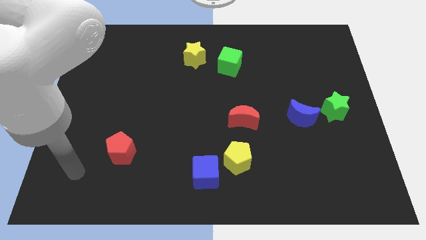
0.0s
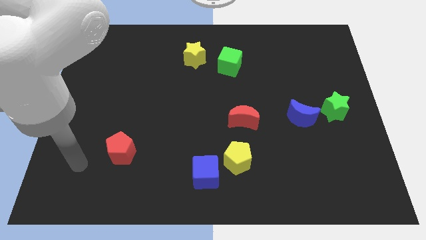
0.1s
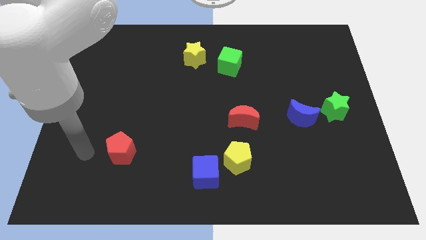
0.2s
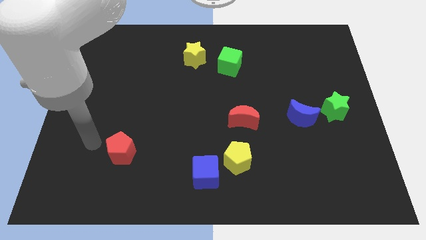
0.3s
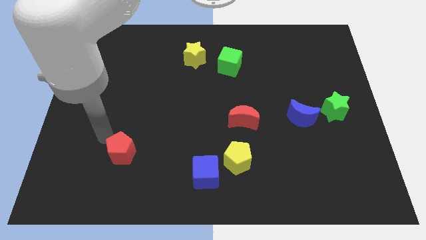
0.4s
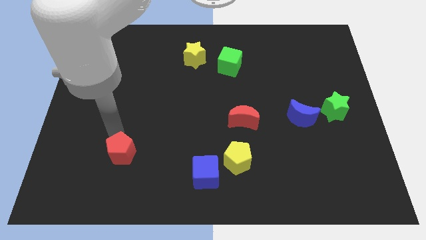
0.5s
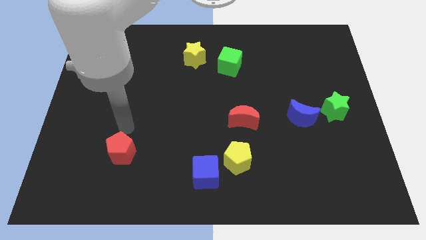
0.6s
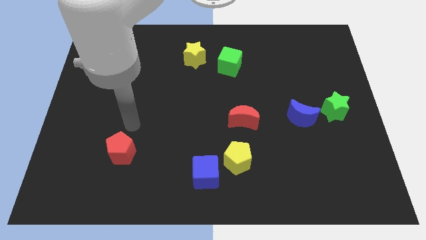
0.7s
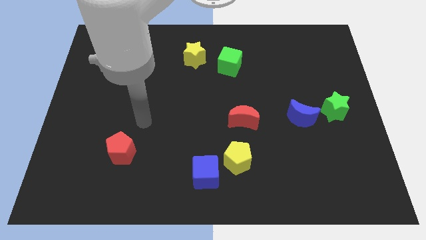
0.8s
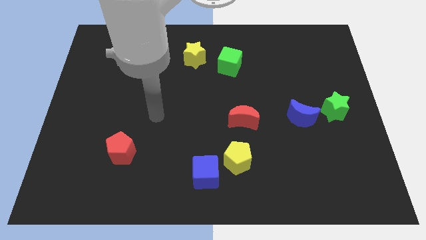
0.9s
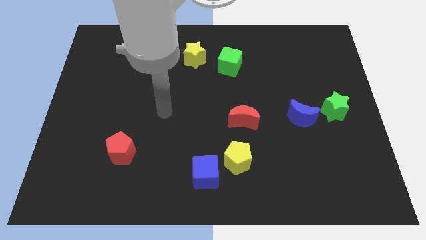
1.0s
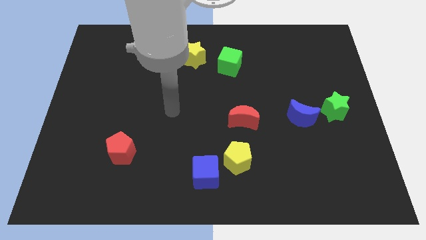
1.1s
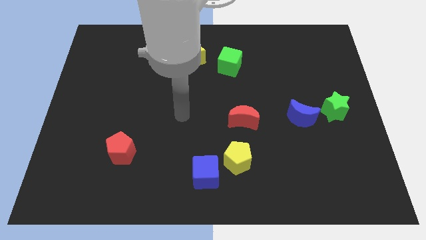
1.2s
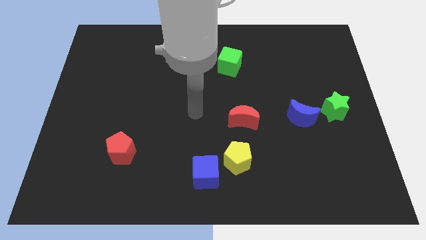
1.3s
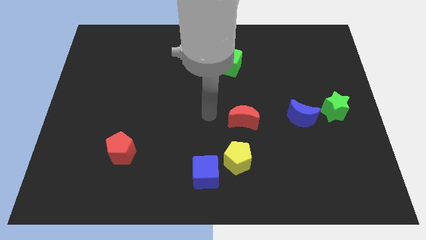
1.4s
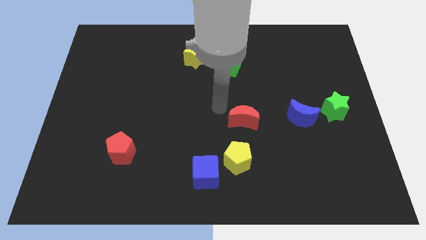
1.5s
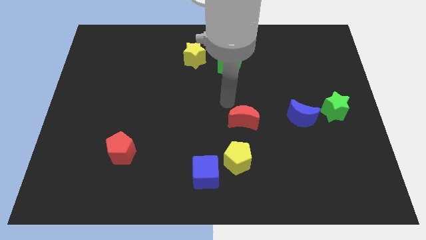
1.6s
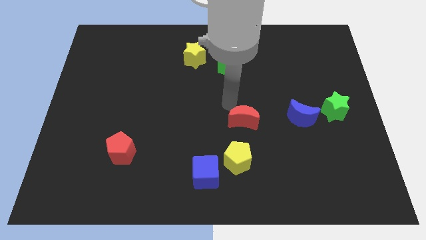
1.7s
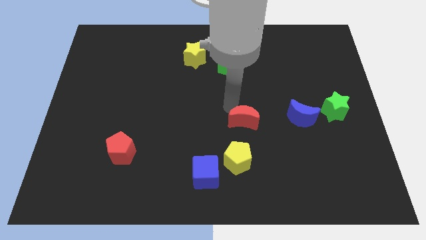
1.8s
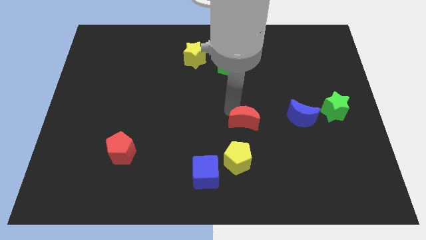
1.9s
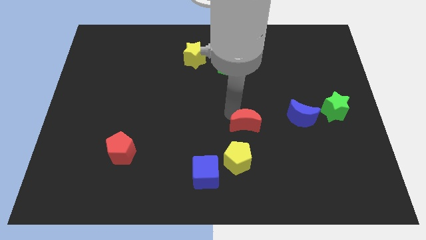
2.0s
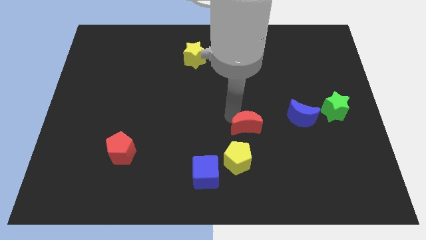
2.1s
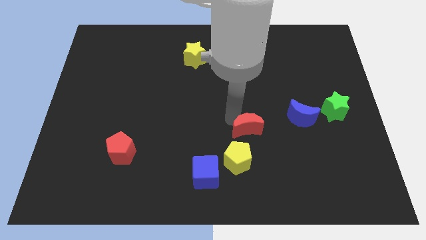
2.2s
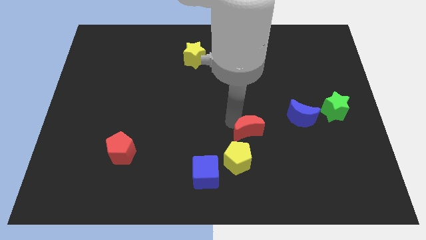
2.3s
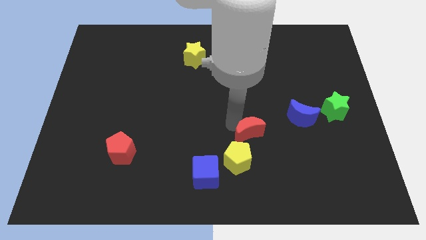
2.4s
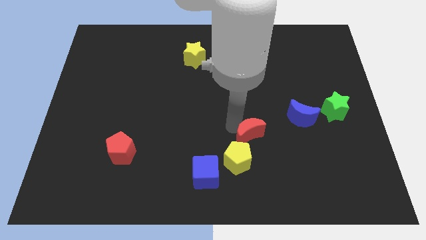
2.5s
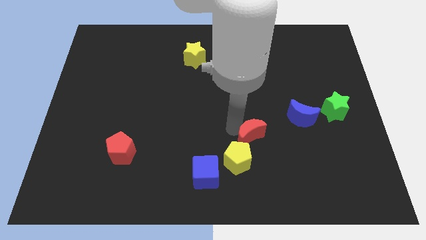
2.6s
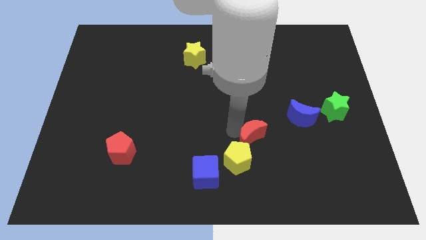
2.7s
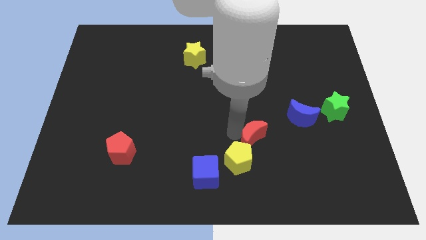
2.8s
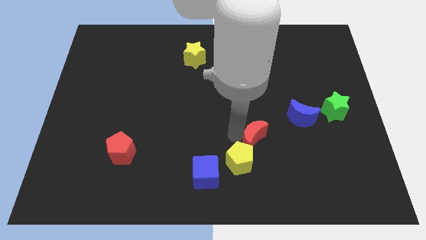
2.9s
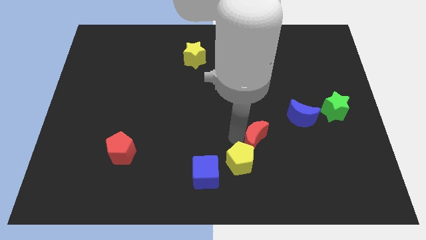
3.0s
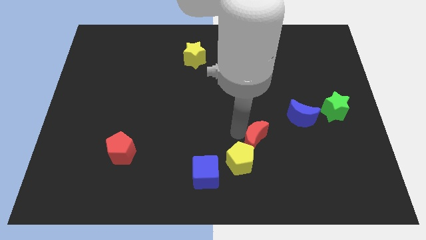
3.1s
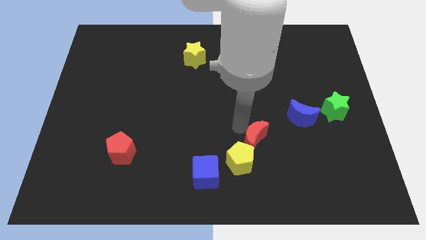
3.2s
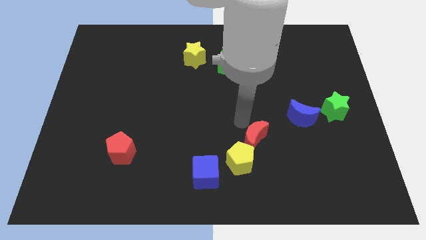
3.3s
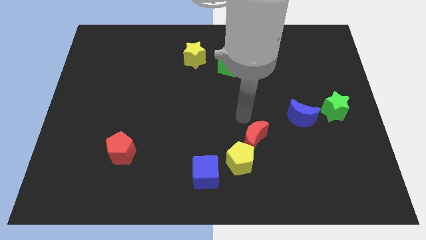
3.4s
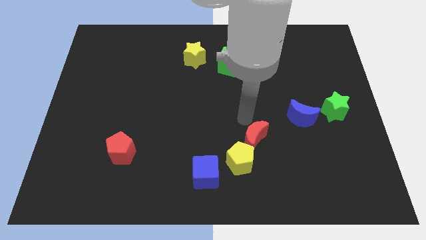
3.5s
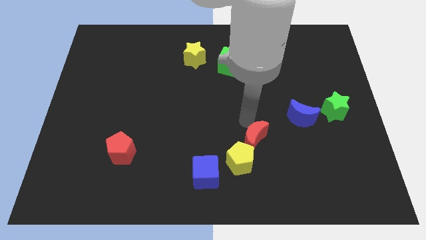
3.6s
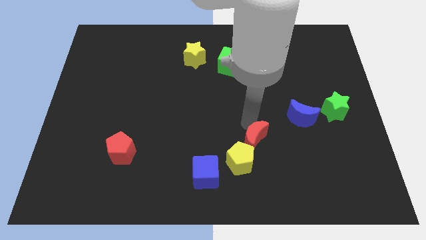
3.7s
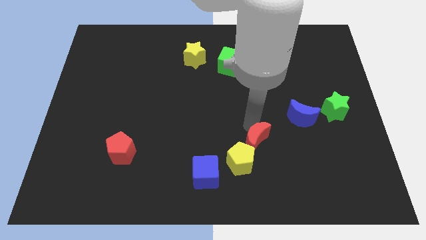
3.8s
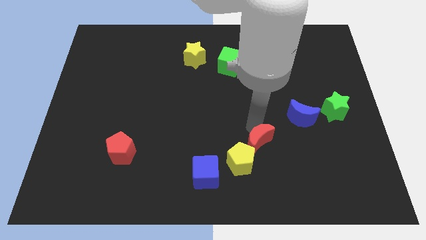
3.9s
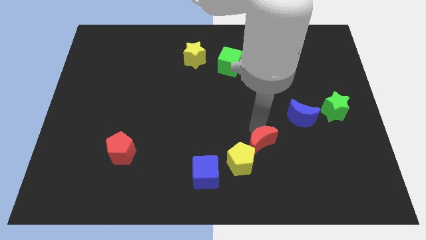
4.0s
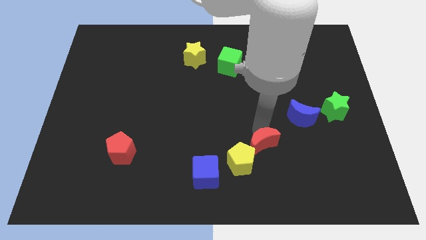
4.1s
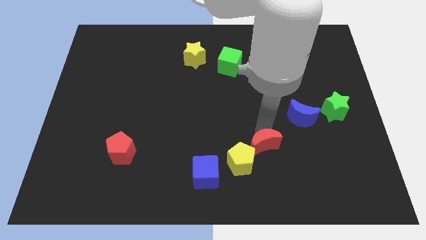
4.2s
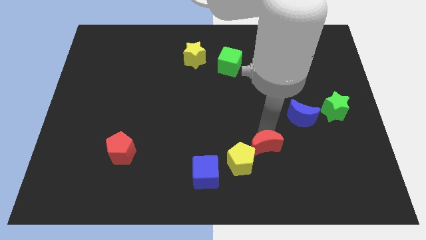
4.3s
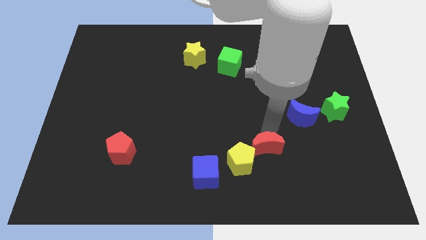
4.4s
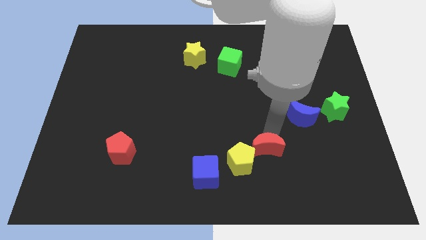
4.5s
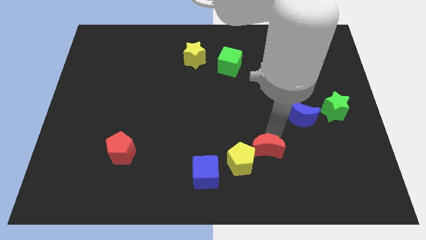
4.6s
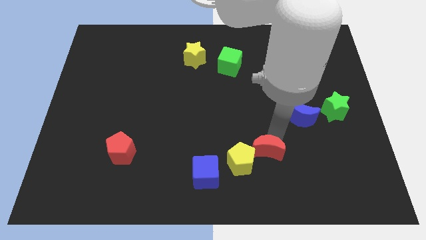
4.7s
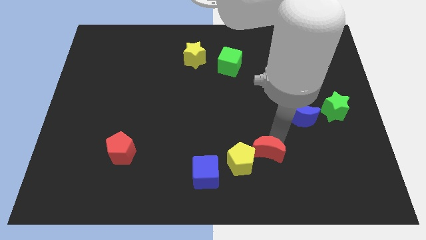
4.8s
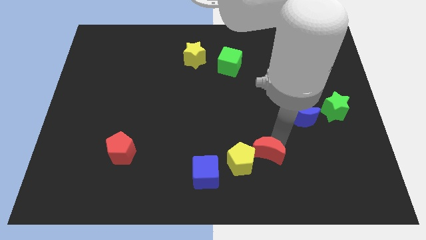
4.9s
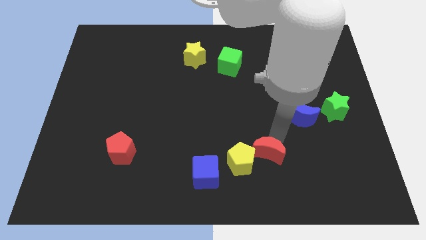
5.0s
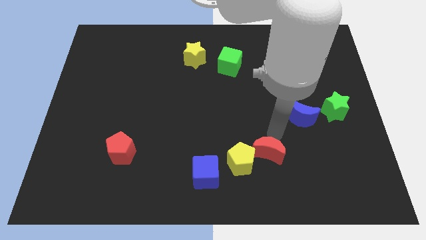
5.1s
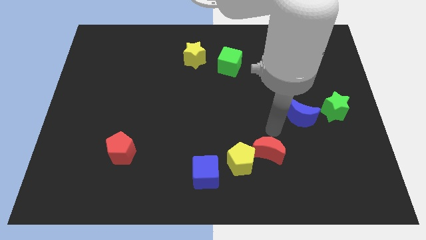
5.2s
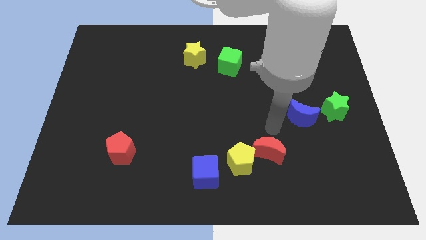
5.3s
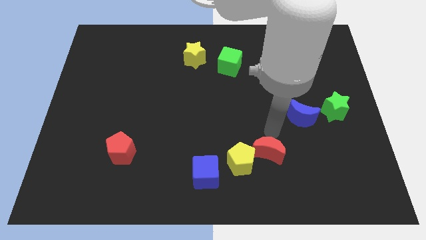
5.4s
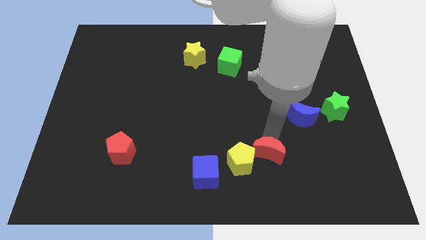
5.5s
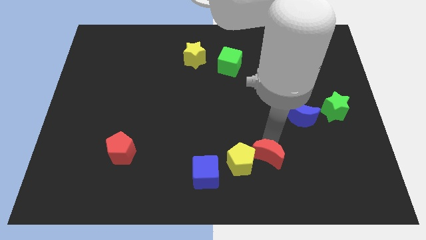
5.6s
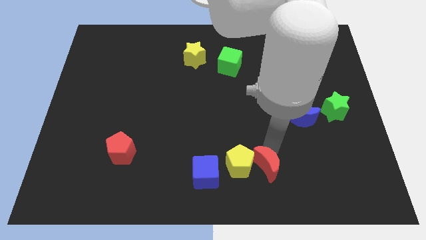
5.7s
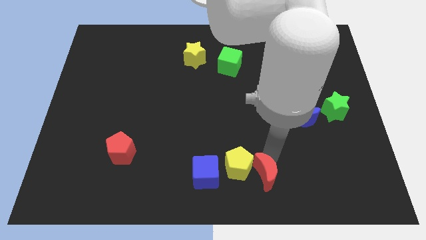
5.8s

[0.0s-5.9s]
put the red moon to the bottom side
